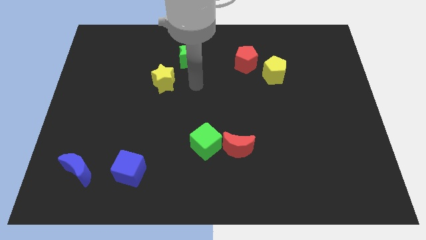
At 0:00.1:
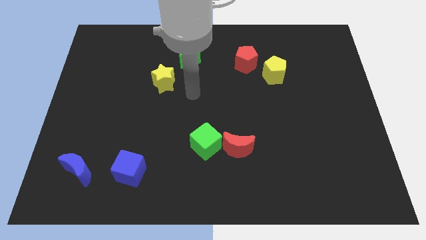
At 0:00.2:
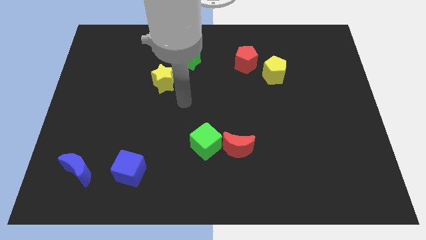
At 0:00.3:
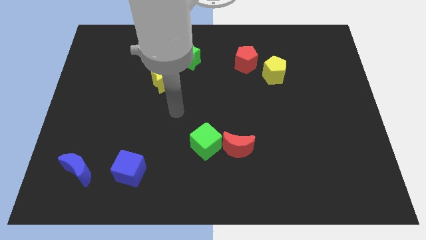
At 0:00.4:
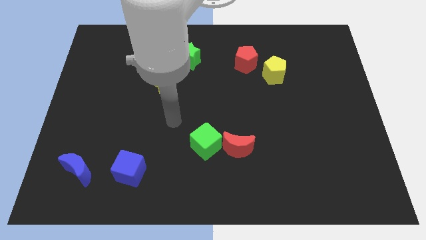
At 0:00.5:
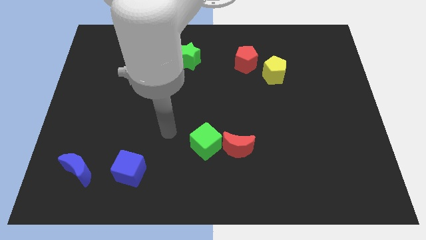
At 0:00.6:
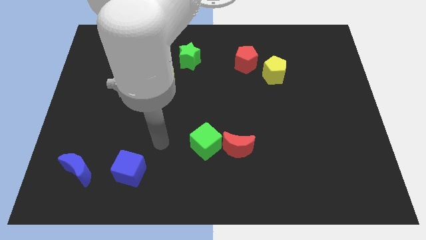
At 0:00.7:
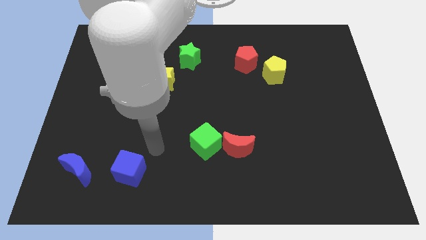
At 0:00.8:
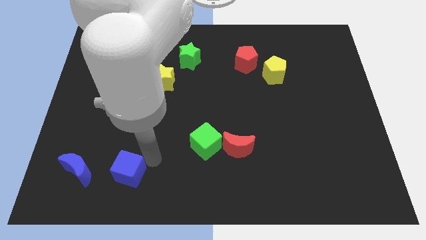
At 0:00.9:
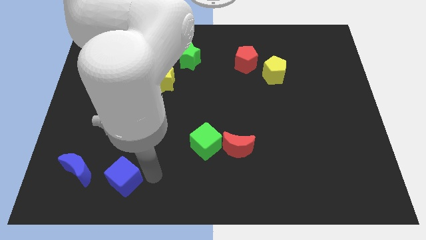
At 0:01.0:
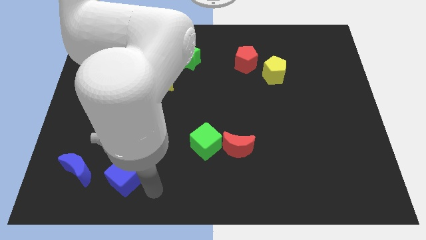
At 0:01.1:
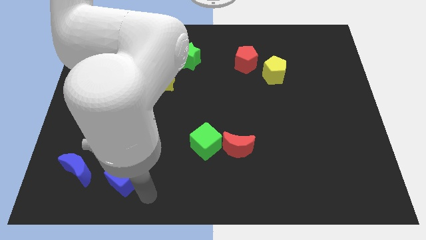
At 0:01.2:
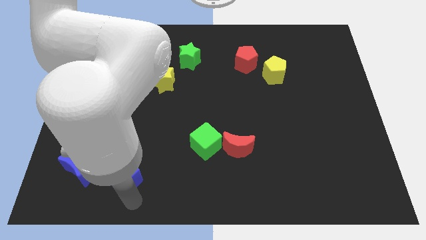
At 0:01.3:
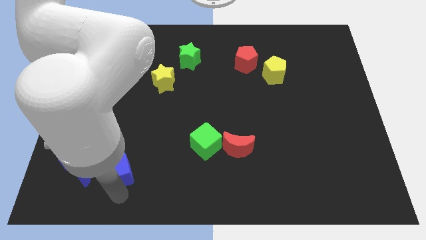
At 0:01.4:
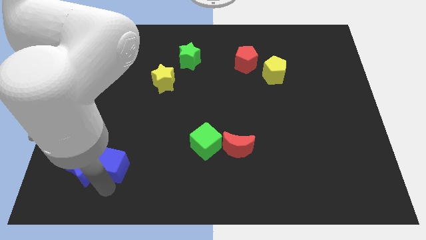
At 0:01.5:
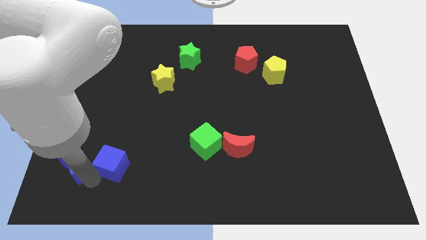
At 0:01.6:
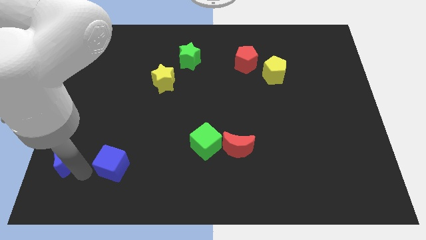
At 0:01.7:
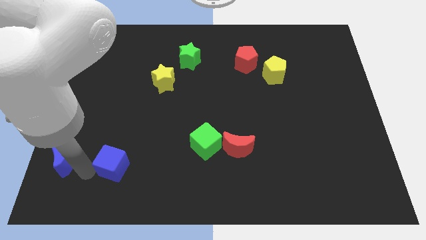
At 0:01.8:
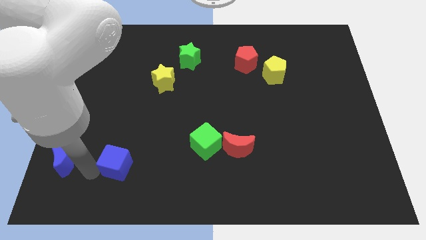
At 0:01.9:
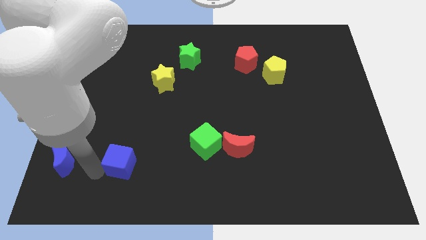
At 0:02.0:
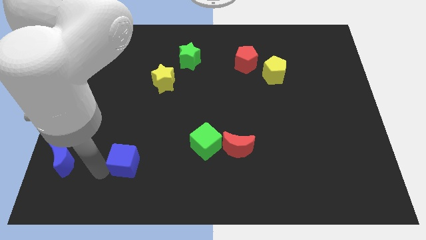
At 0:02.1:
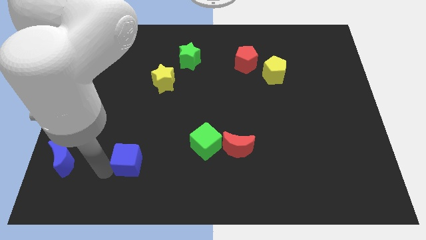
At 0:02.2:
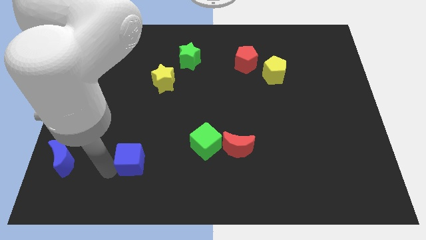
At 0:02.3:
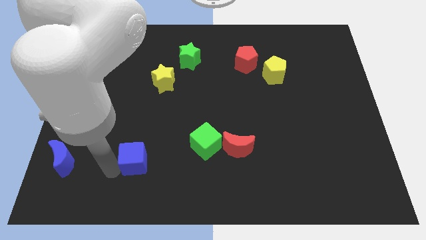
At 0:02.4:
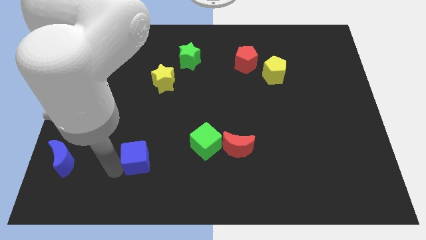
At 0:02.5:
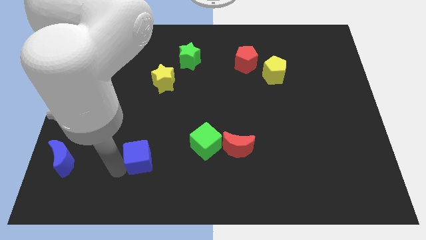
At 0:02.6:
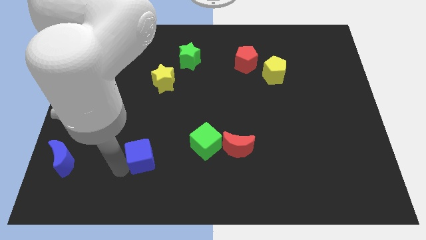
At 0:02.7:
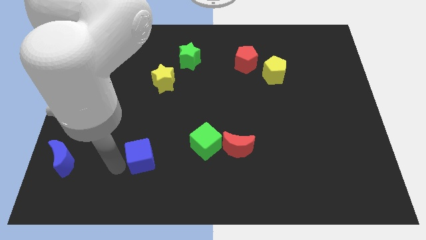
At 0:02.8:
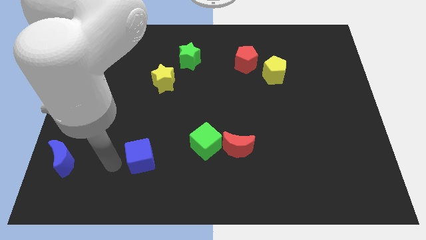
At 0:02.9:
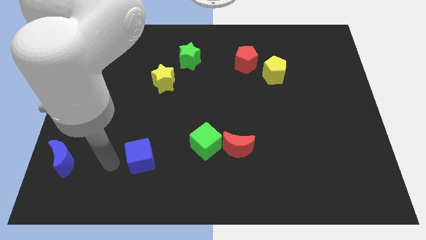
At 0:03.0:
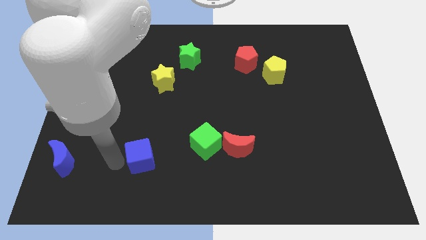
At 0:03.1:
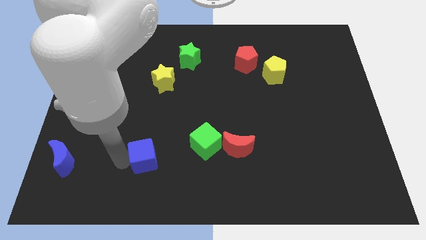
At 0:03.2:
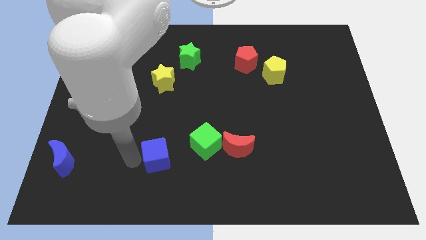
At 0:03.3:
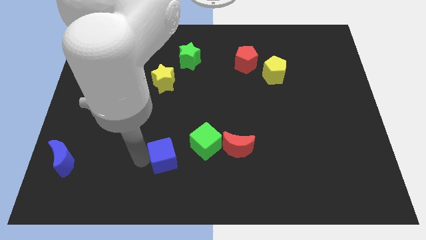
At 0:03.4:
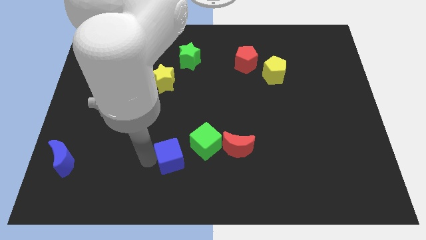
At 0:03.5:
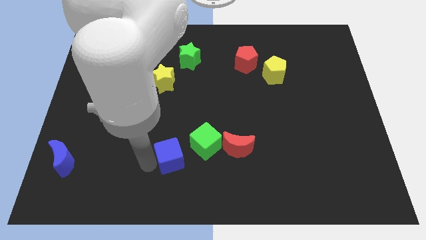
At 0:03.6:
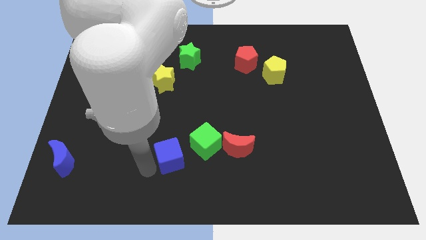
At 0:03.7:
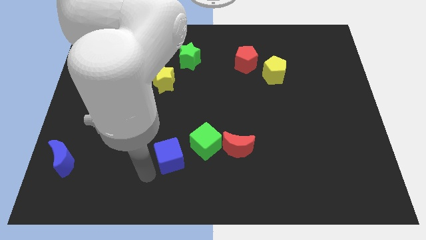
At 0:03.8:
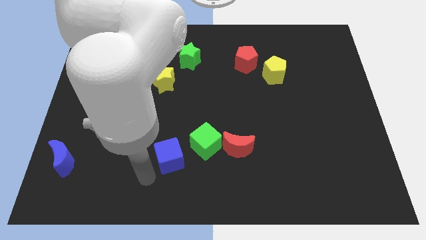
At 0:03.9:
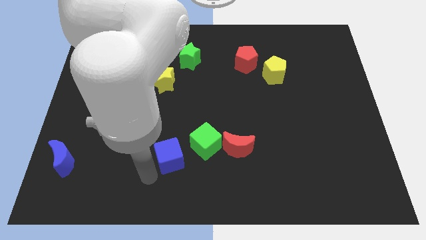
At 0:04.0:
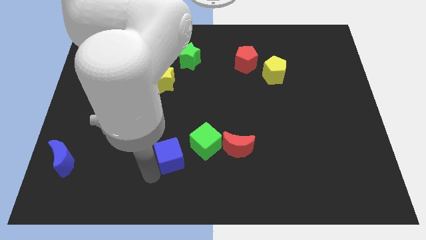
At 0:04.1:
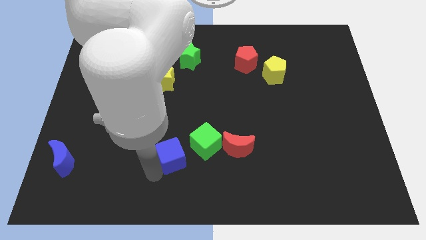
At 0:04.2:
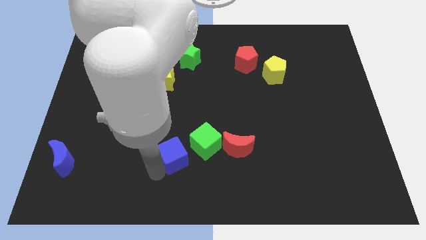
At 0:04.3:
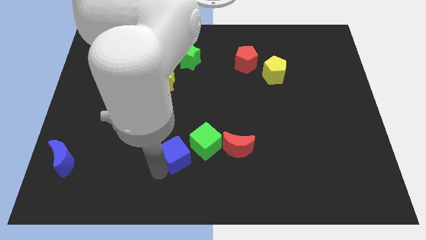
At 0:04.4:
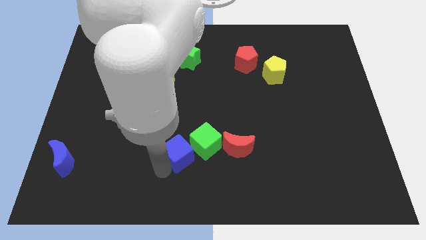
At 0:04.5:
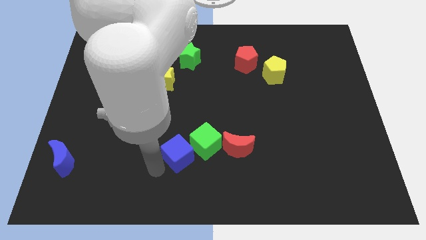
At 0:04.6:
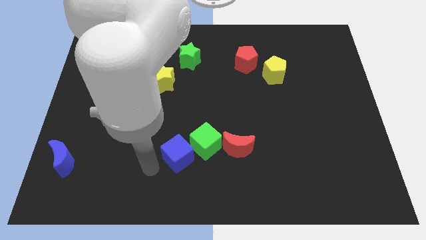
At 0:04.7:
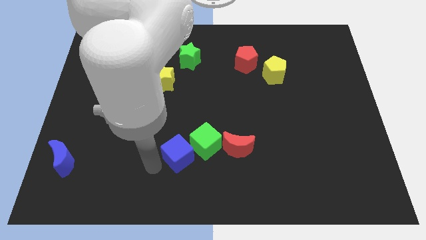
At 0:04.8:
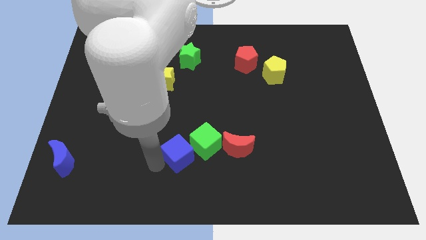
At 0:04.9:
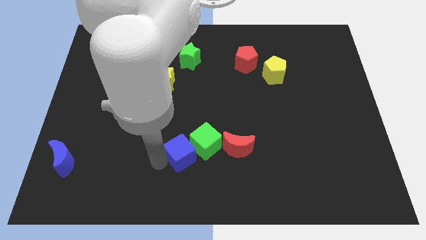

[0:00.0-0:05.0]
put the blue cube to the green cube

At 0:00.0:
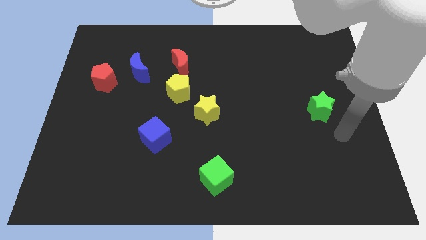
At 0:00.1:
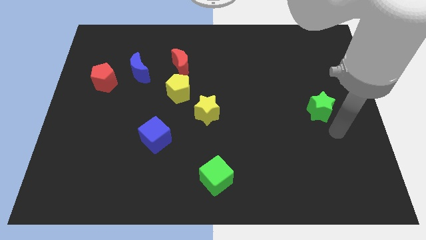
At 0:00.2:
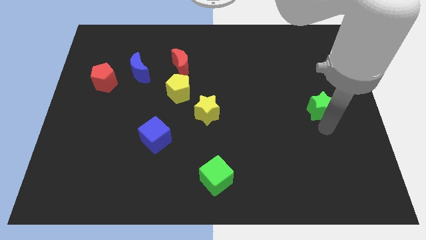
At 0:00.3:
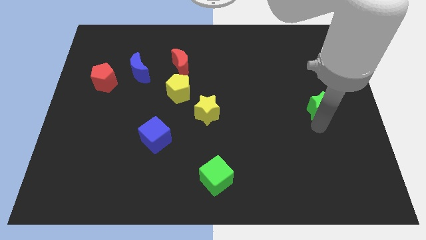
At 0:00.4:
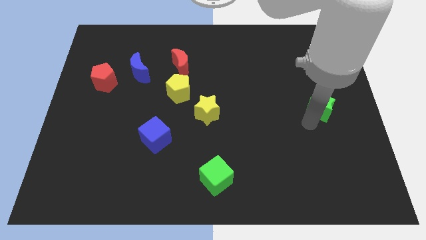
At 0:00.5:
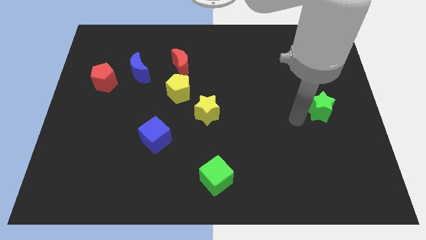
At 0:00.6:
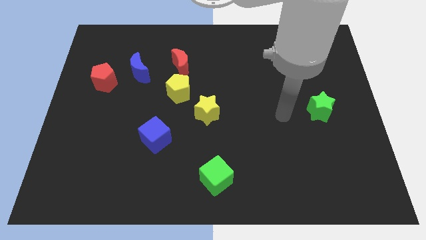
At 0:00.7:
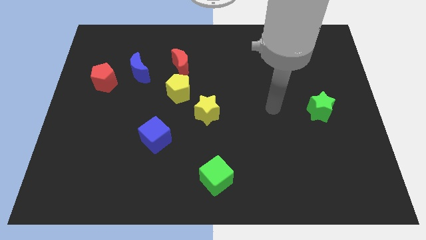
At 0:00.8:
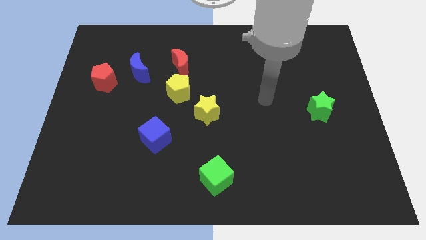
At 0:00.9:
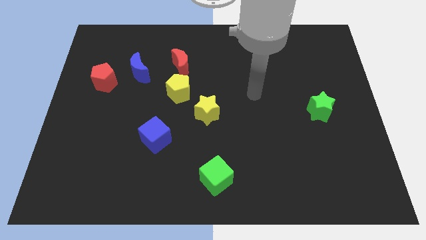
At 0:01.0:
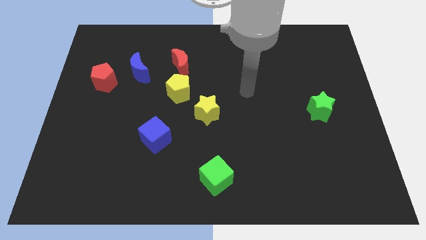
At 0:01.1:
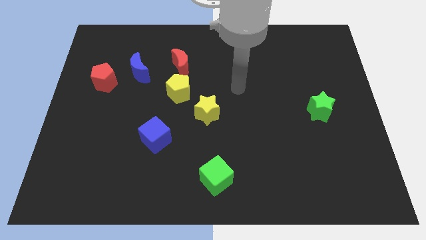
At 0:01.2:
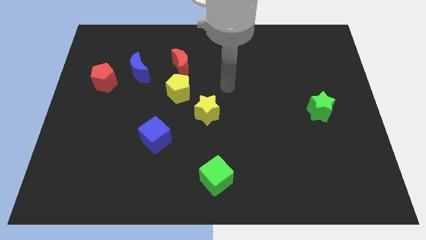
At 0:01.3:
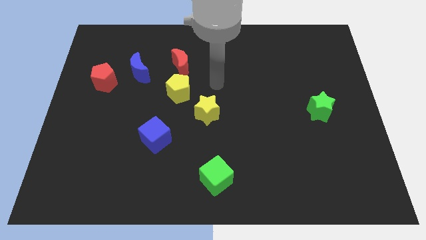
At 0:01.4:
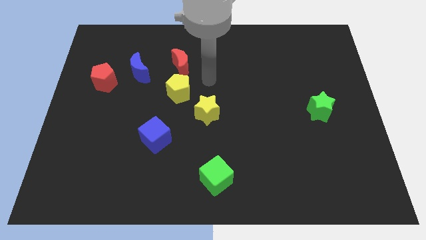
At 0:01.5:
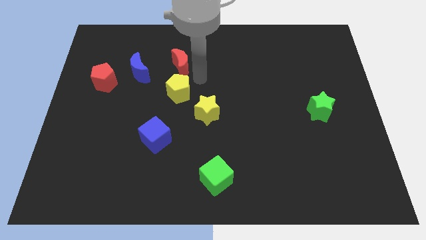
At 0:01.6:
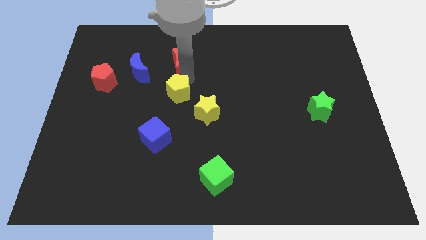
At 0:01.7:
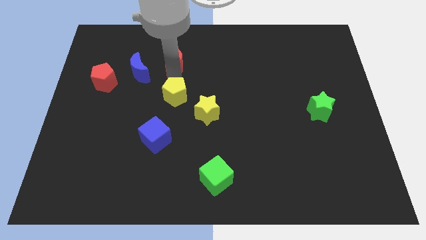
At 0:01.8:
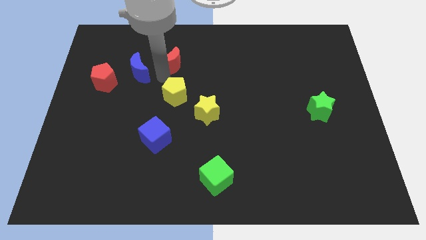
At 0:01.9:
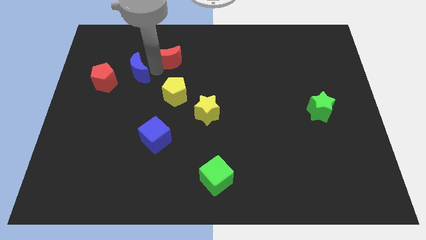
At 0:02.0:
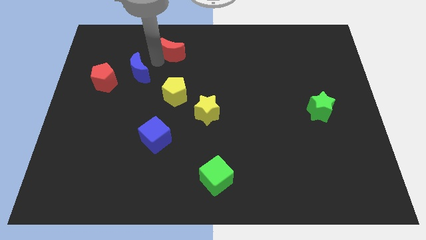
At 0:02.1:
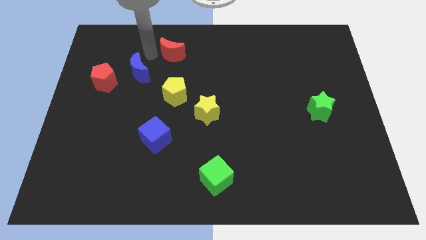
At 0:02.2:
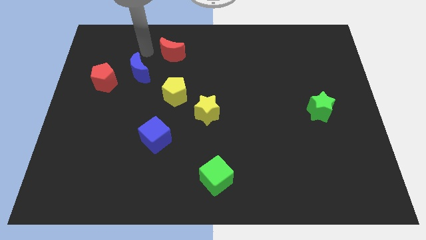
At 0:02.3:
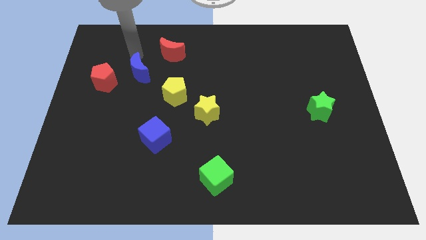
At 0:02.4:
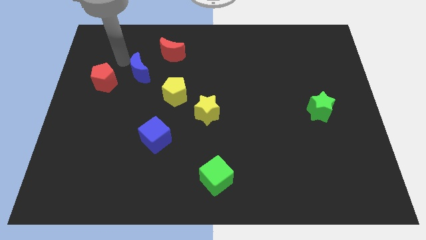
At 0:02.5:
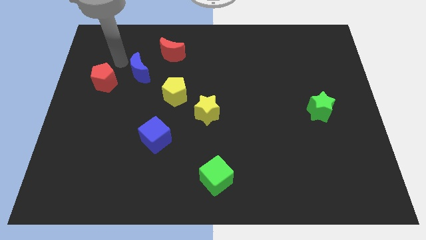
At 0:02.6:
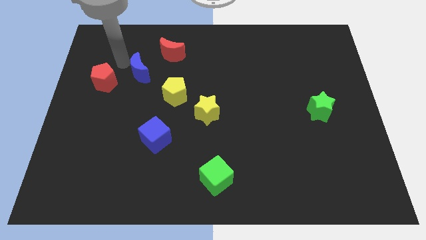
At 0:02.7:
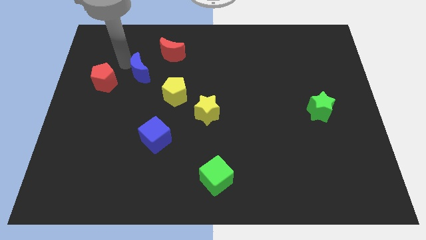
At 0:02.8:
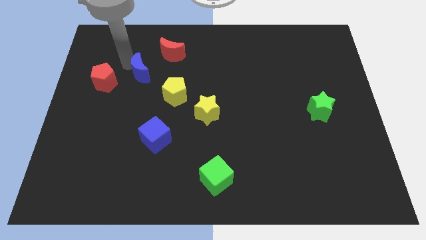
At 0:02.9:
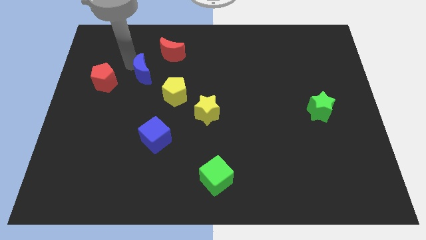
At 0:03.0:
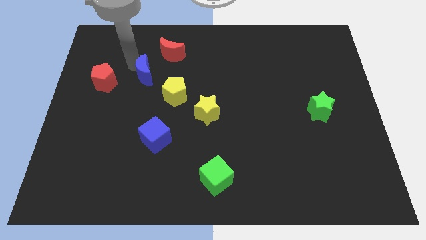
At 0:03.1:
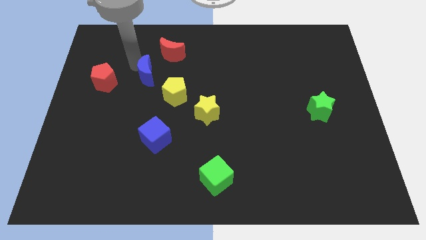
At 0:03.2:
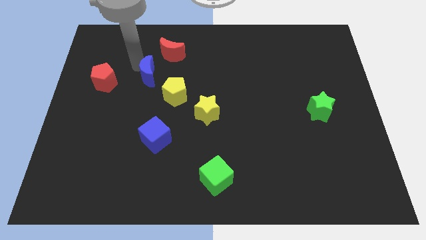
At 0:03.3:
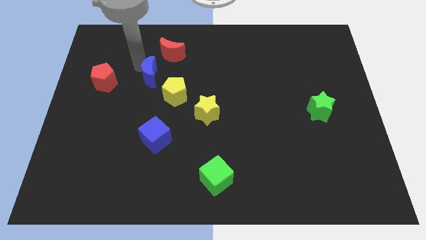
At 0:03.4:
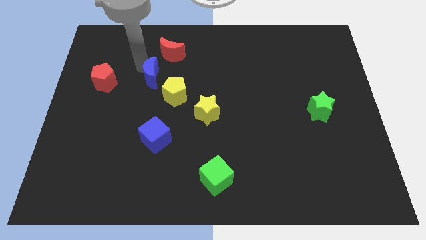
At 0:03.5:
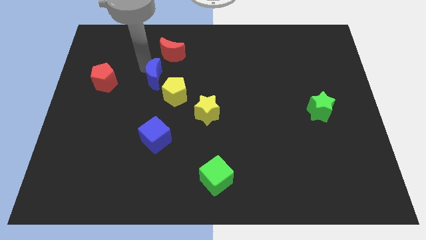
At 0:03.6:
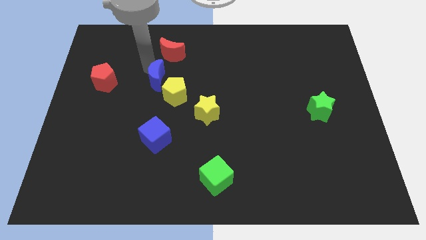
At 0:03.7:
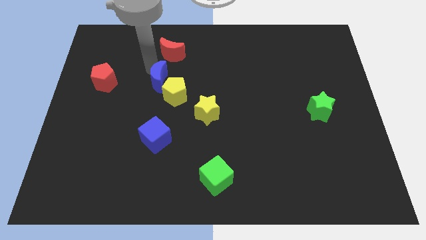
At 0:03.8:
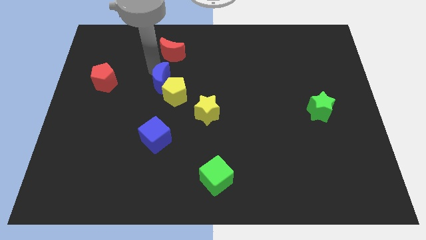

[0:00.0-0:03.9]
push the blue moon close to the yellow pentagon
